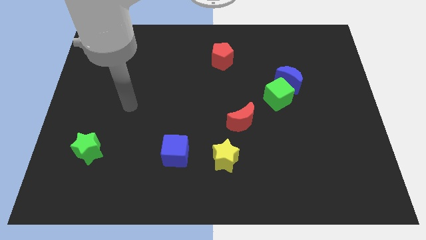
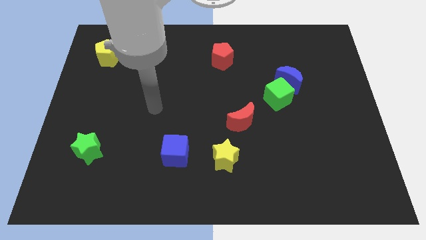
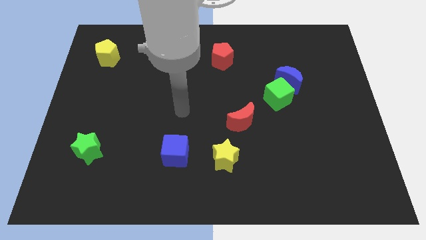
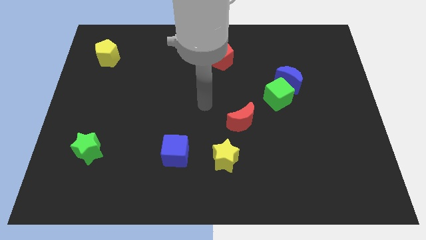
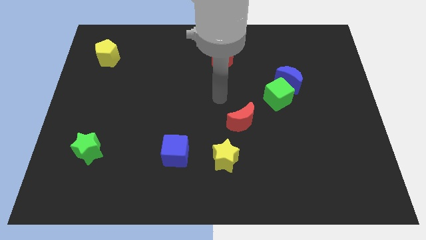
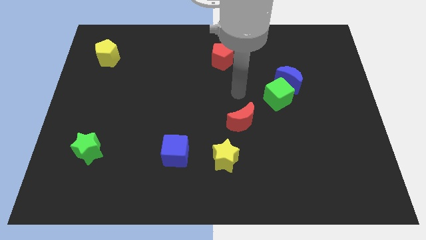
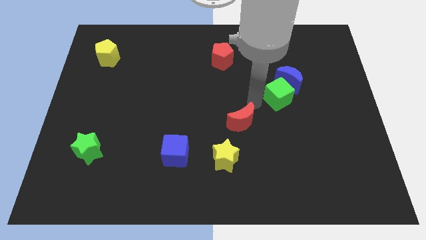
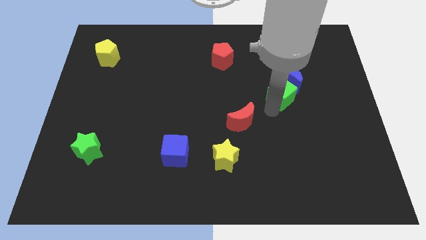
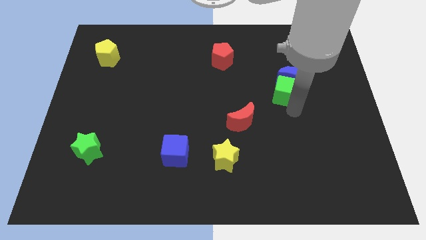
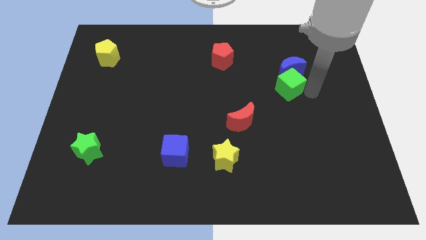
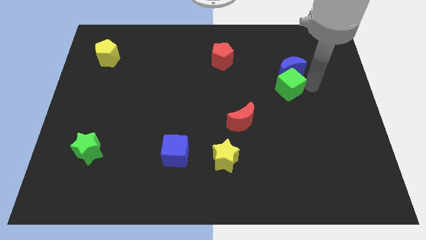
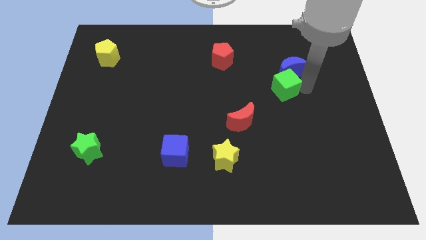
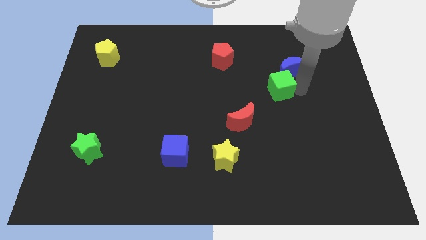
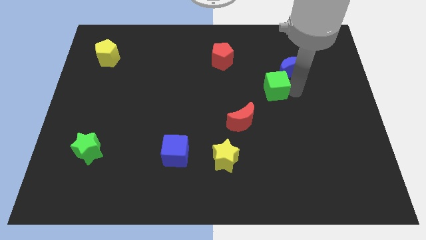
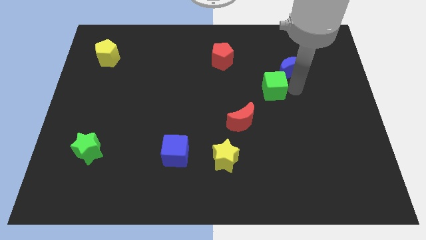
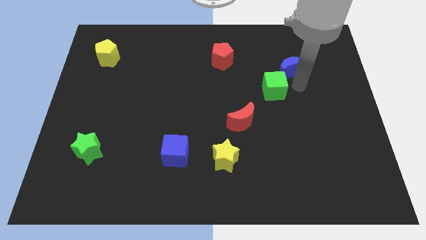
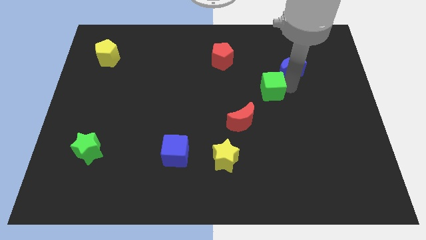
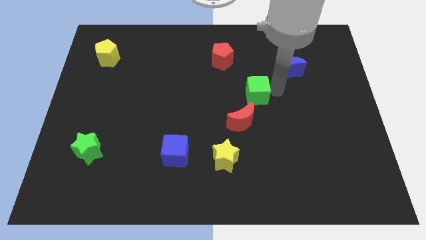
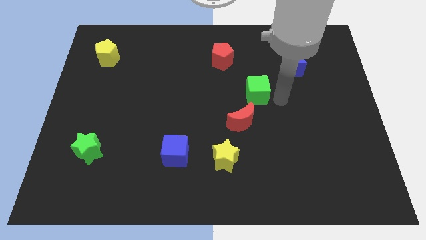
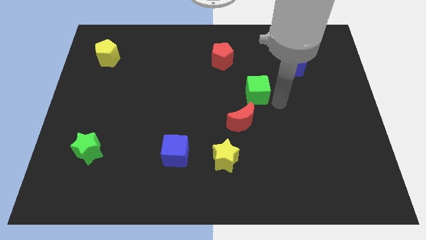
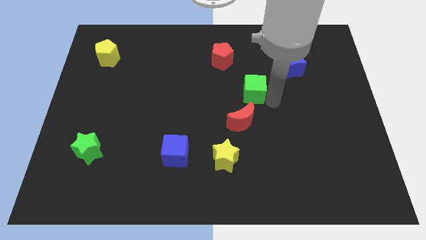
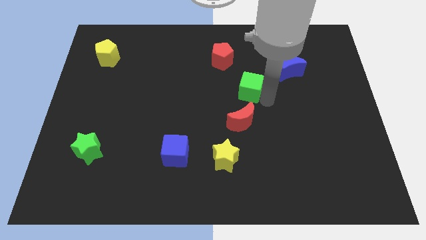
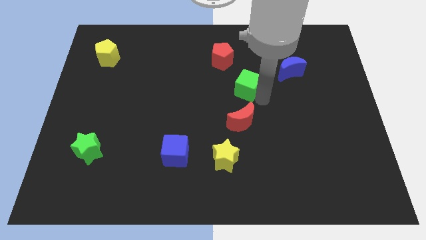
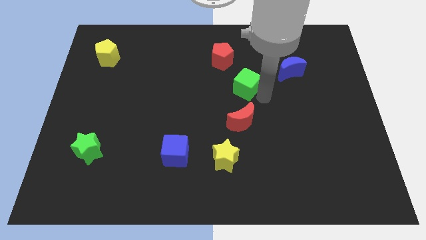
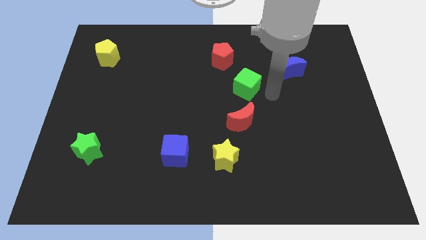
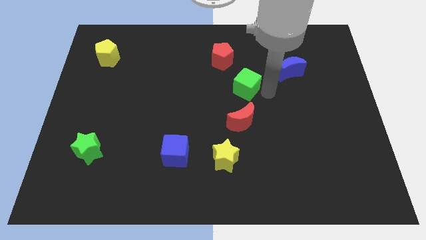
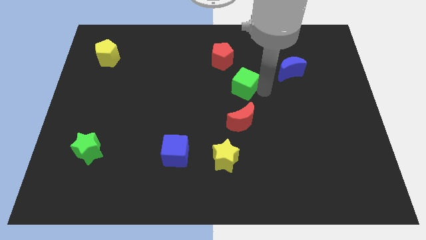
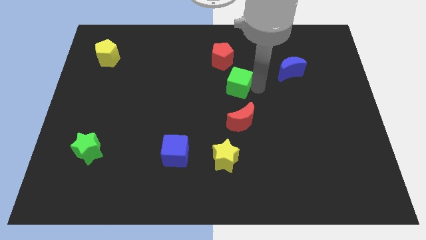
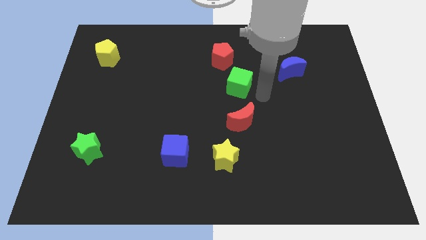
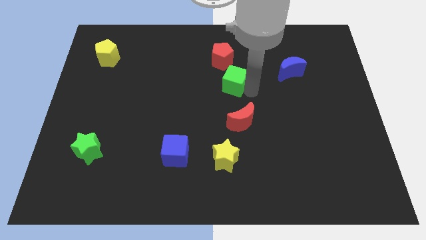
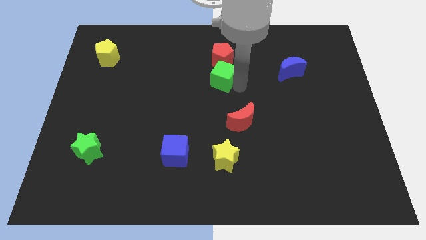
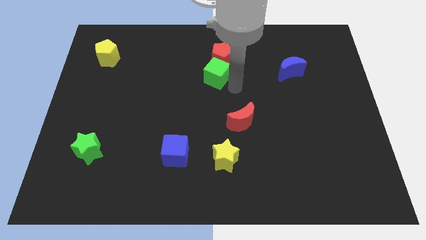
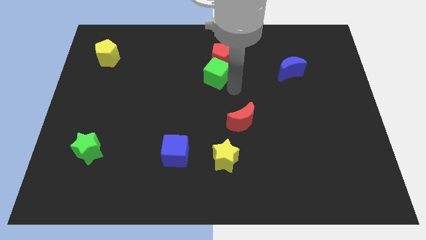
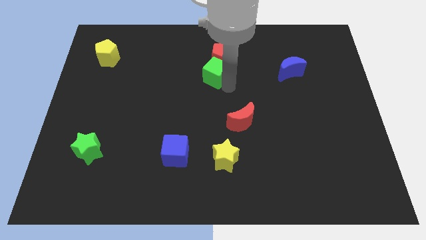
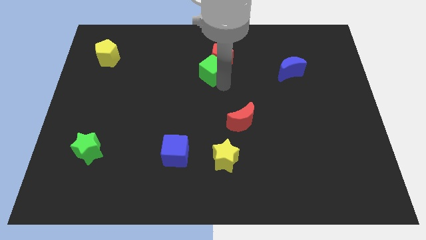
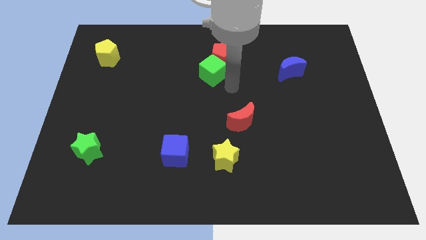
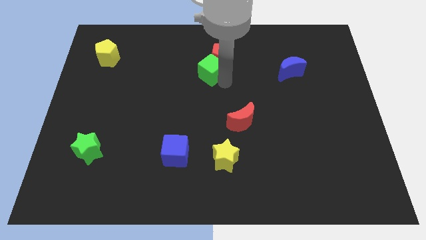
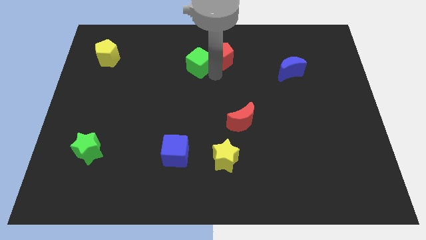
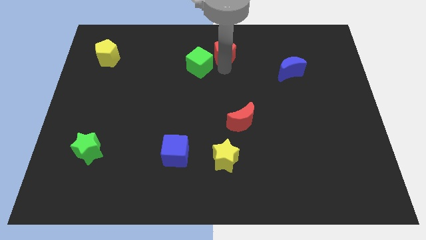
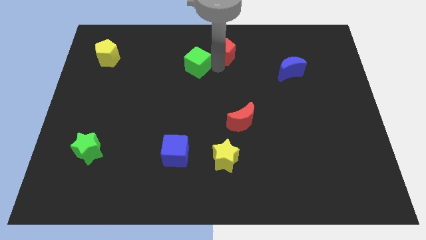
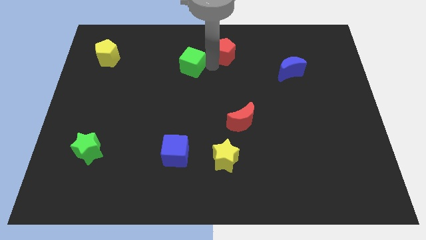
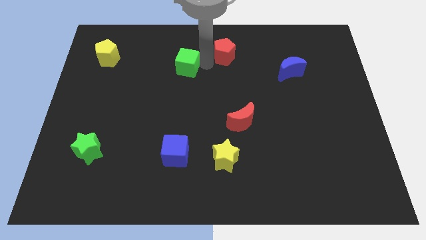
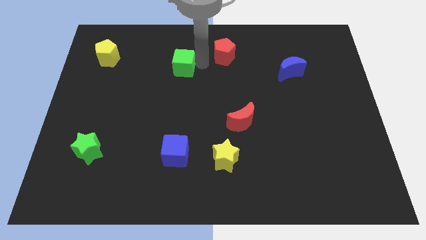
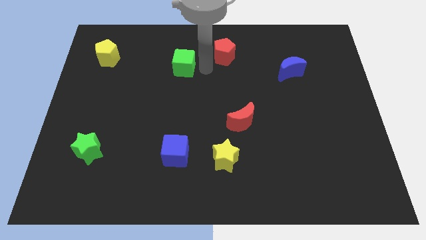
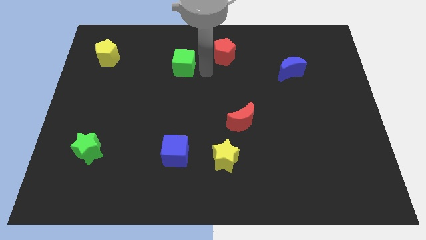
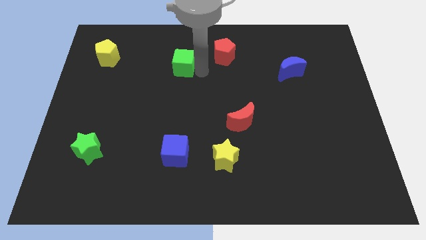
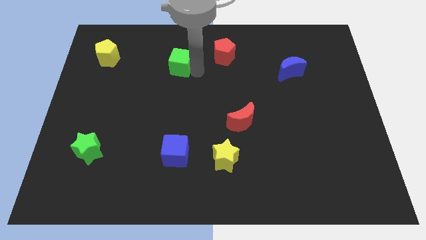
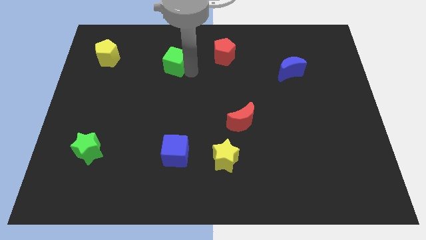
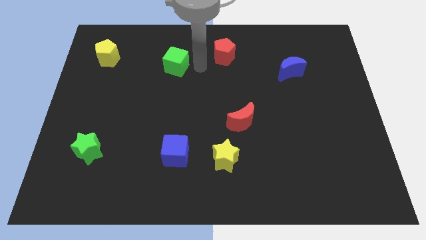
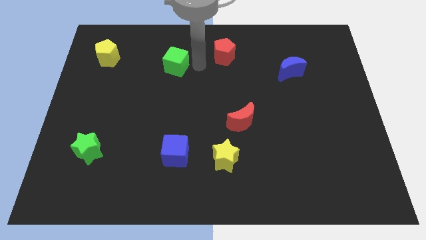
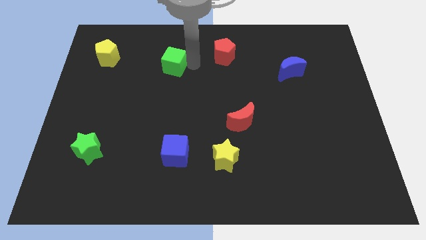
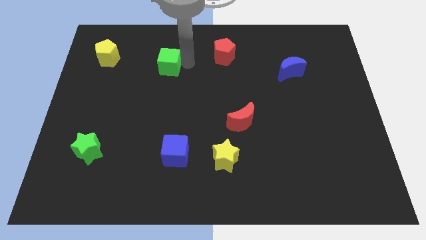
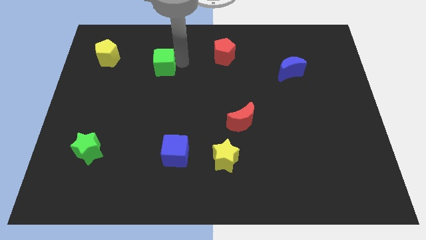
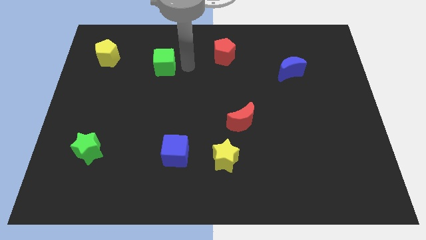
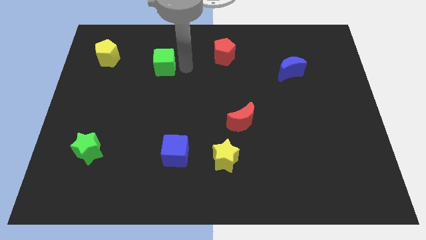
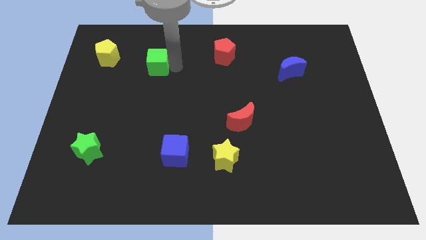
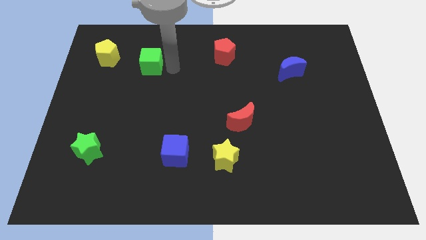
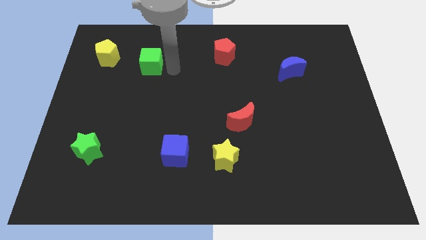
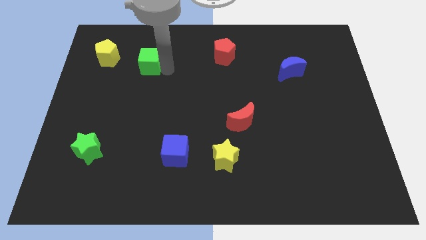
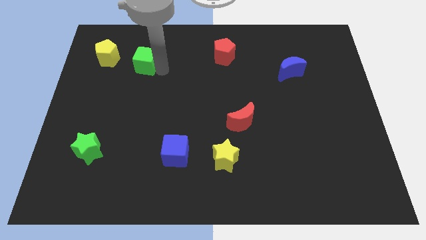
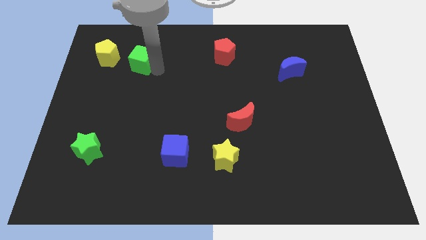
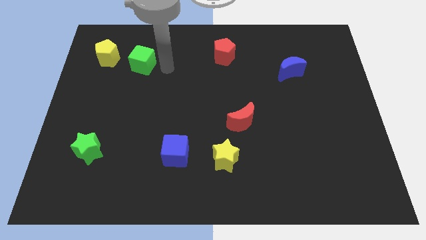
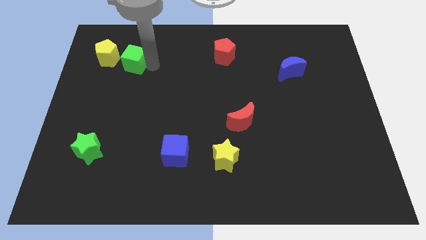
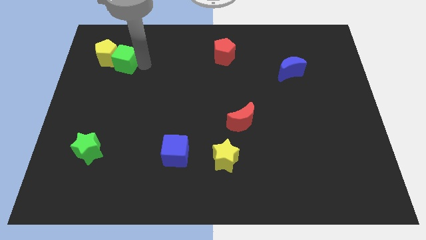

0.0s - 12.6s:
slide the green cube next to the yellow pentagon

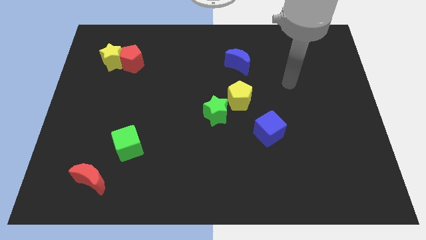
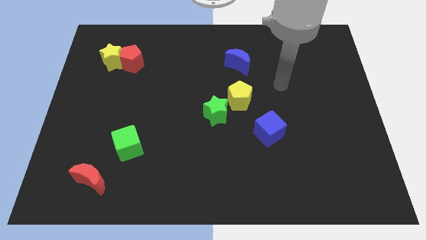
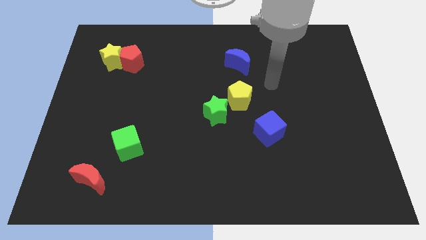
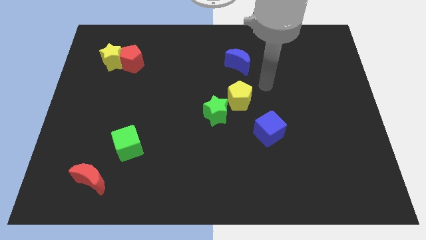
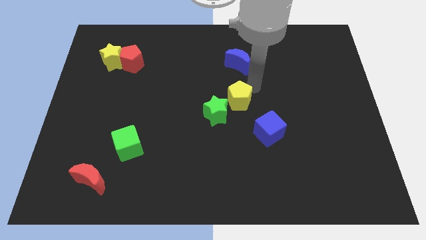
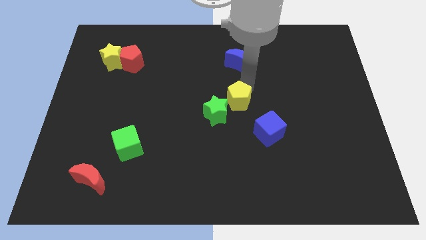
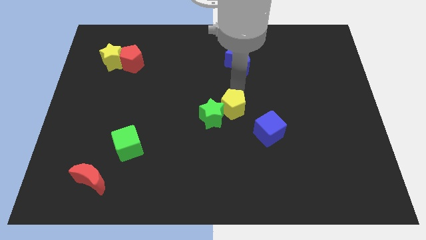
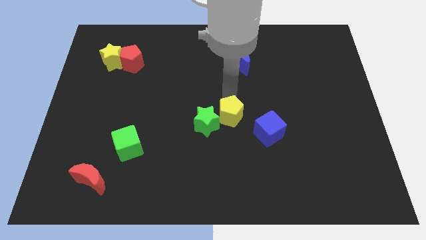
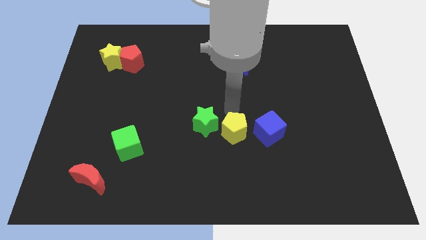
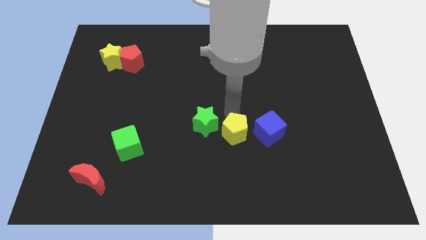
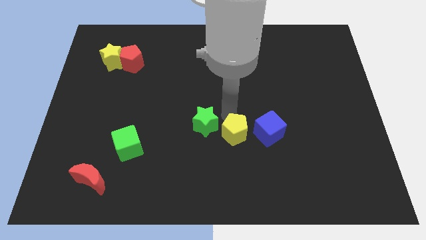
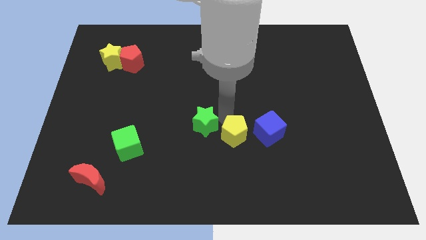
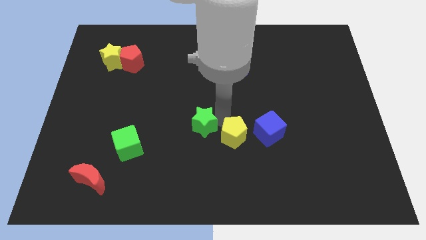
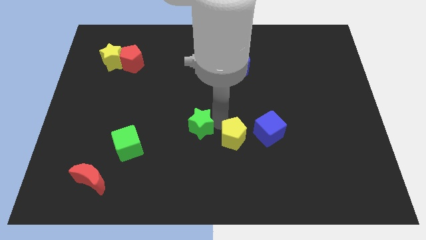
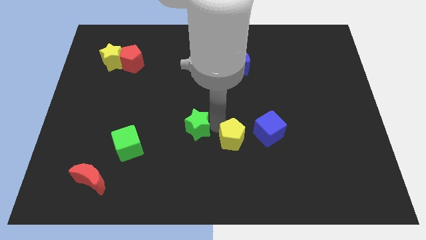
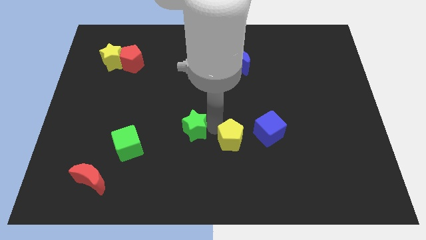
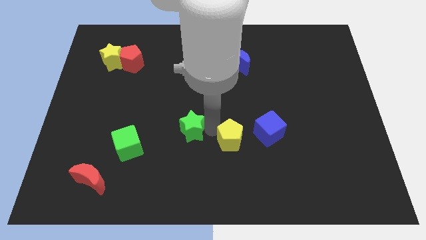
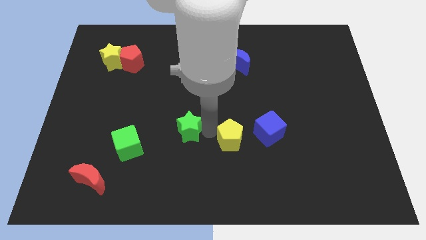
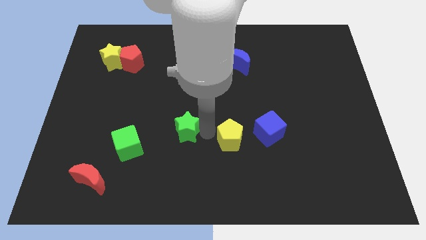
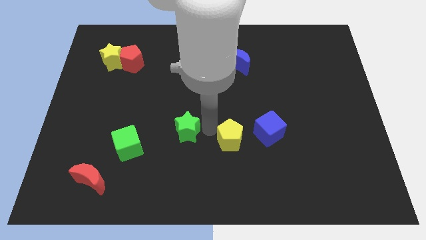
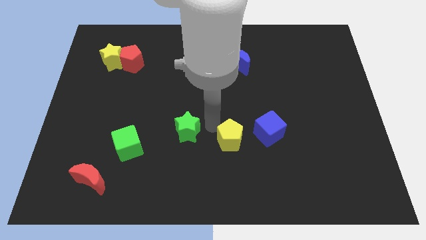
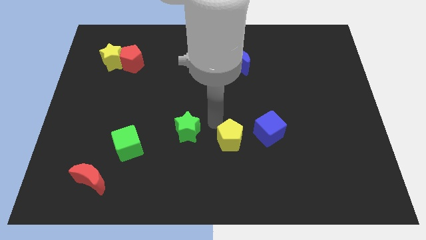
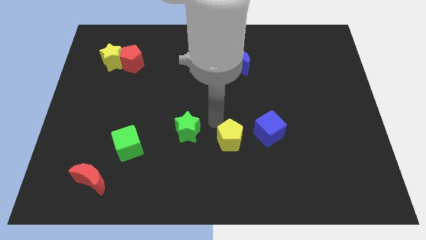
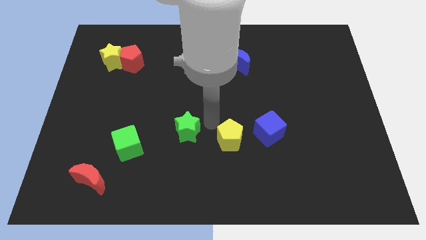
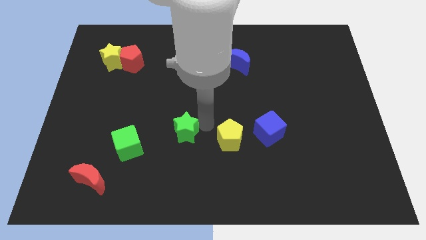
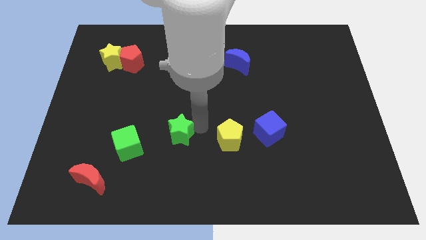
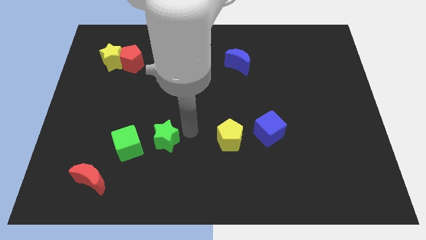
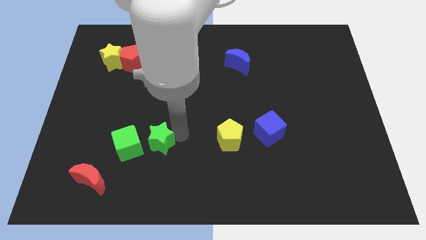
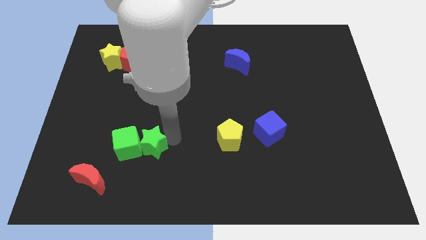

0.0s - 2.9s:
put the green star next to the green cube
